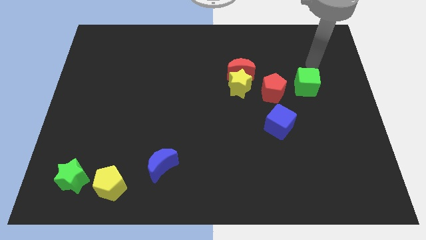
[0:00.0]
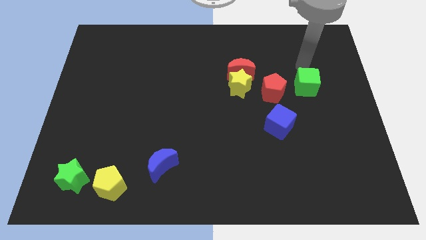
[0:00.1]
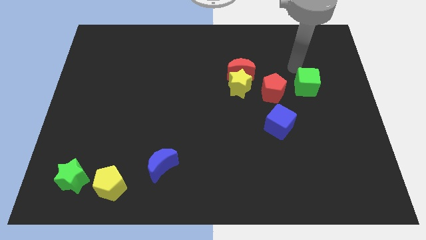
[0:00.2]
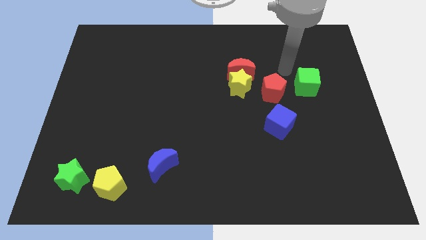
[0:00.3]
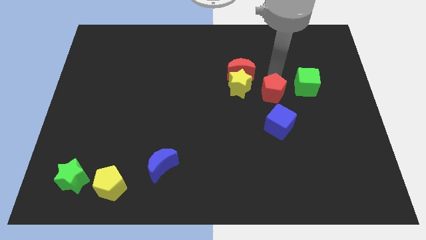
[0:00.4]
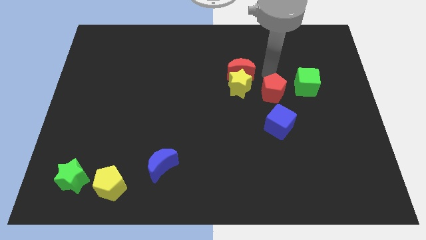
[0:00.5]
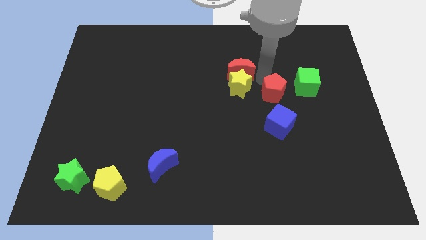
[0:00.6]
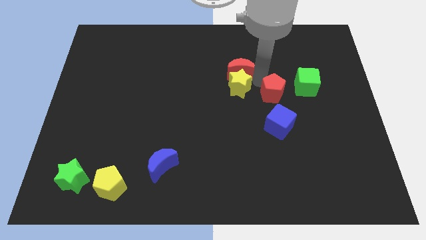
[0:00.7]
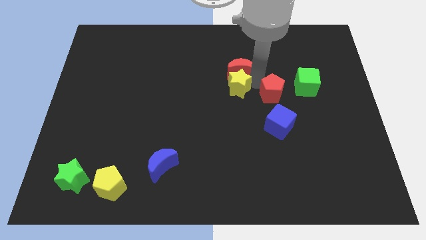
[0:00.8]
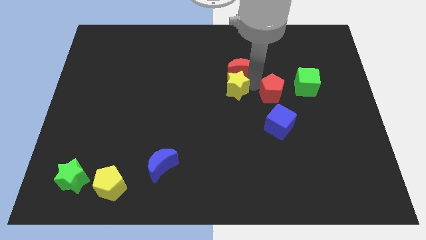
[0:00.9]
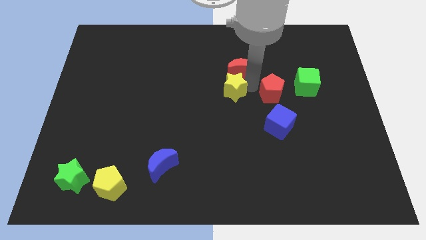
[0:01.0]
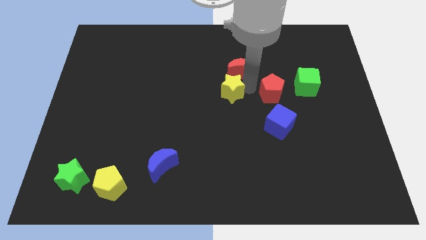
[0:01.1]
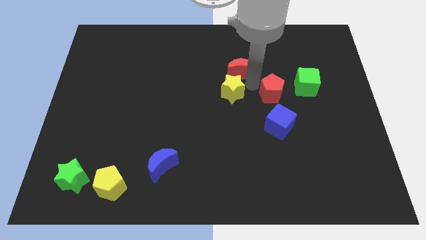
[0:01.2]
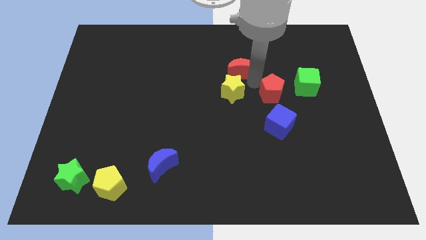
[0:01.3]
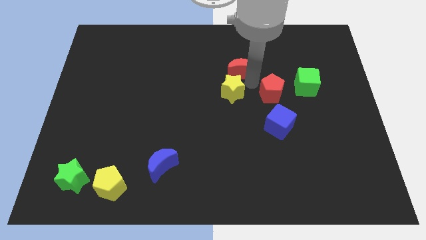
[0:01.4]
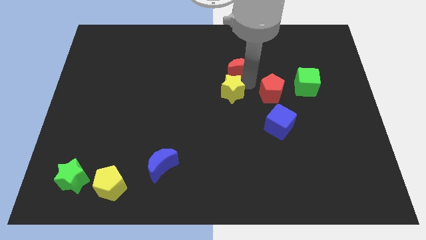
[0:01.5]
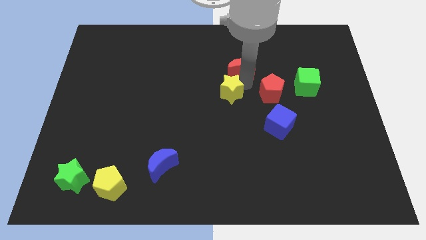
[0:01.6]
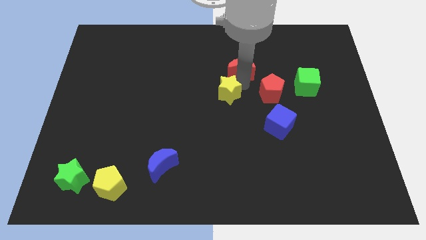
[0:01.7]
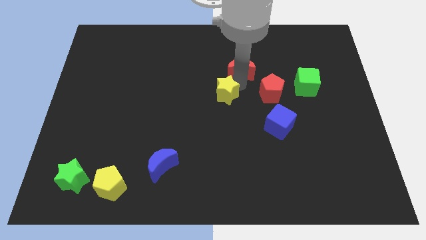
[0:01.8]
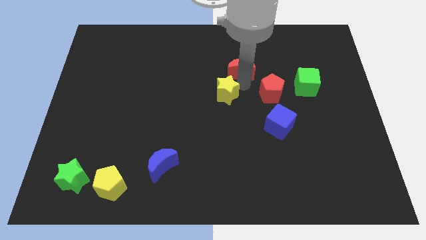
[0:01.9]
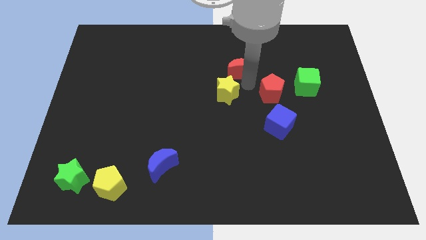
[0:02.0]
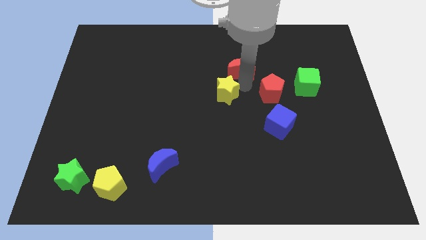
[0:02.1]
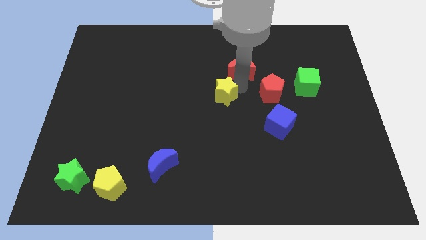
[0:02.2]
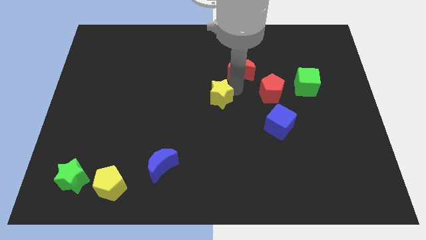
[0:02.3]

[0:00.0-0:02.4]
separate the yellow star from the red moon and red pentagon

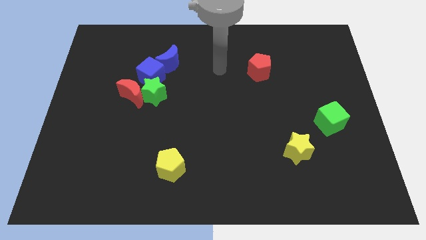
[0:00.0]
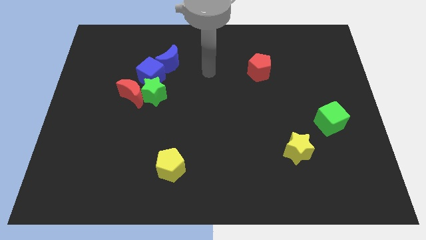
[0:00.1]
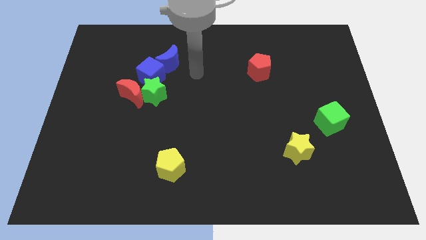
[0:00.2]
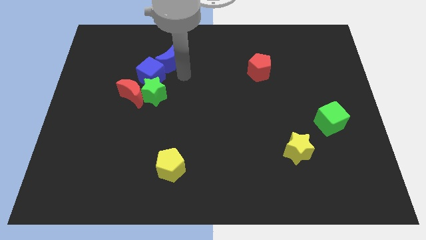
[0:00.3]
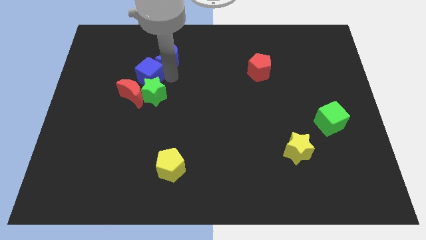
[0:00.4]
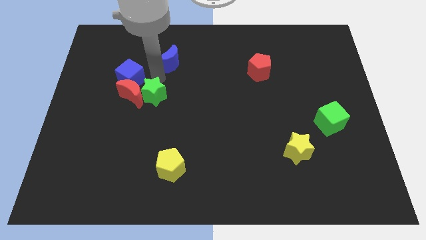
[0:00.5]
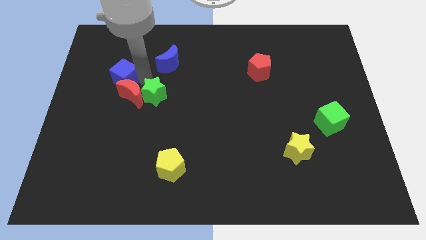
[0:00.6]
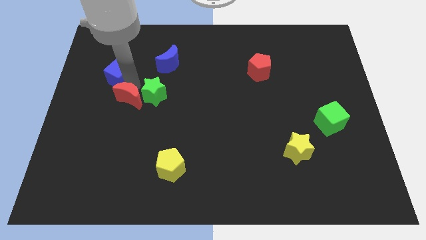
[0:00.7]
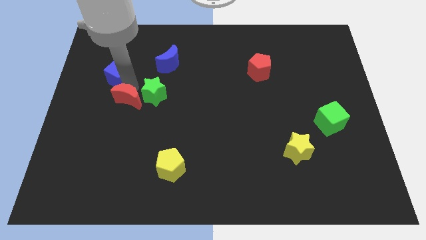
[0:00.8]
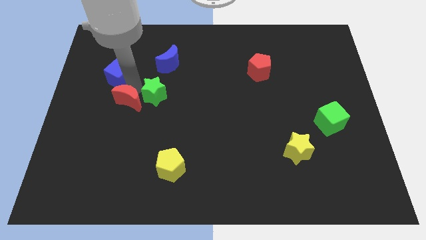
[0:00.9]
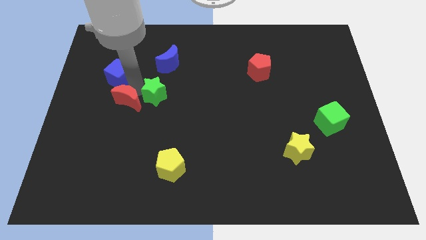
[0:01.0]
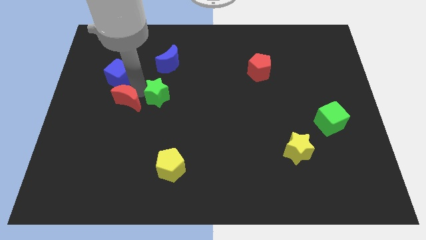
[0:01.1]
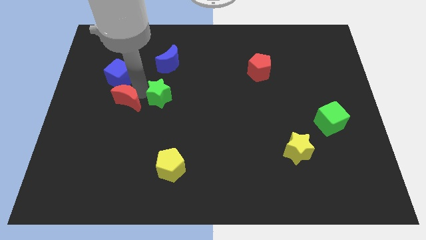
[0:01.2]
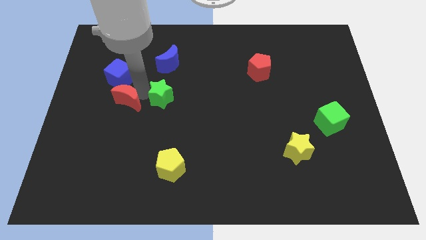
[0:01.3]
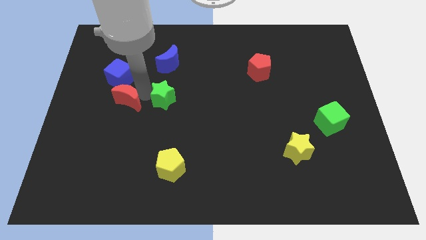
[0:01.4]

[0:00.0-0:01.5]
separate the green star from the red moon and blue cube

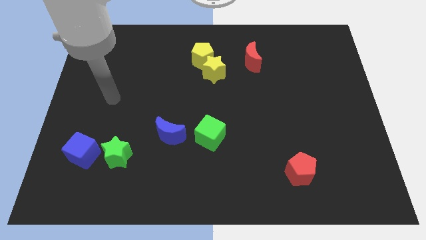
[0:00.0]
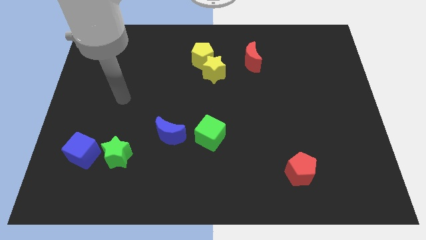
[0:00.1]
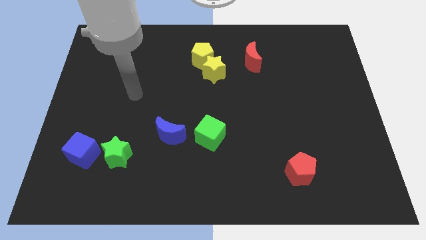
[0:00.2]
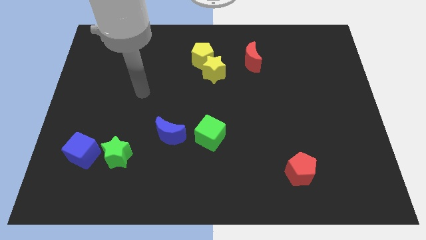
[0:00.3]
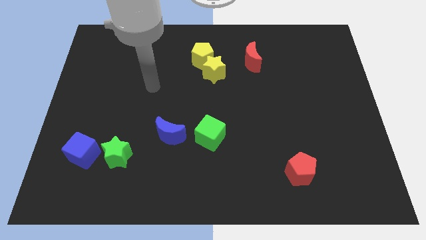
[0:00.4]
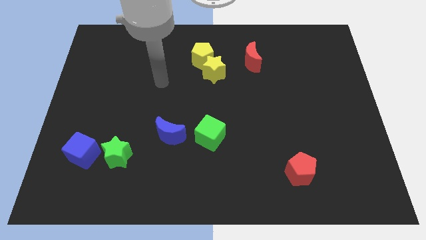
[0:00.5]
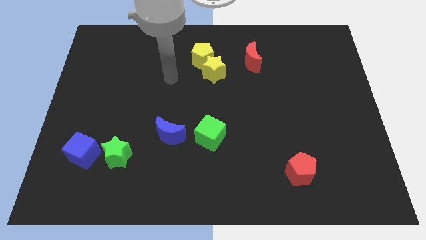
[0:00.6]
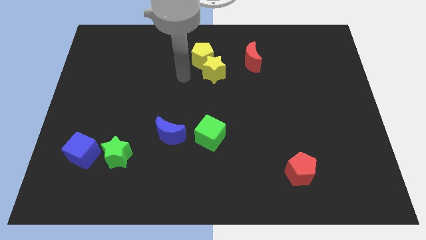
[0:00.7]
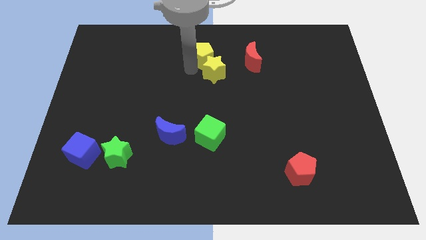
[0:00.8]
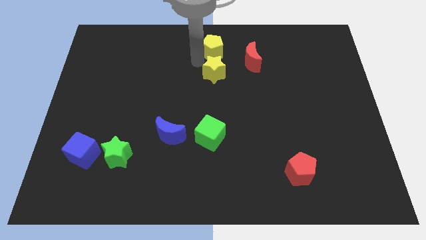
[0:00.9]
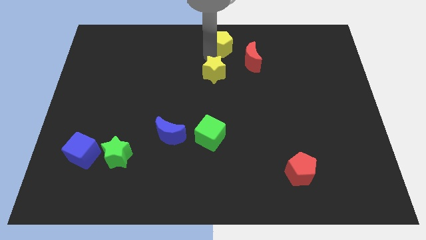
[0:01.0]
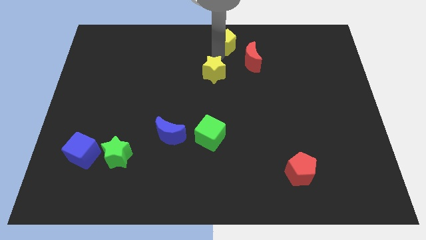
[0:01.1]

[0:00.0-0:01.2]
move the yellow star away from the yellow pentagon

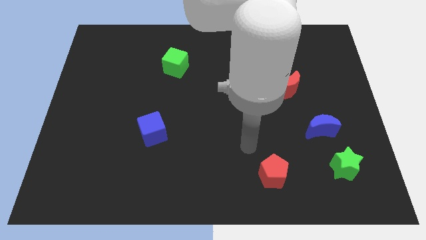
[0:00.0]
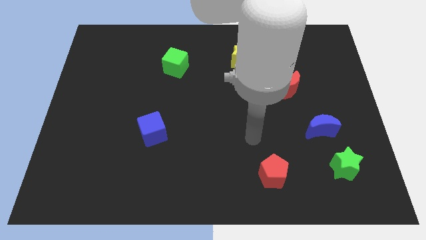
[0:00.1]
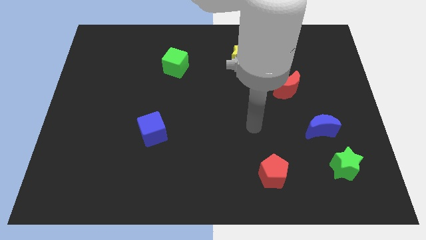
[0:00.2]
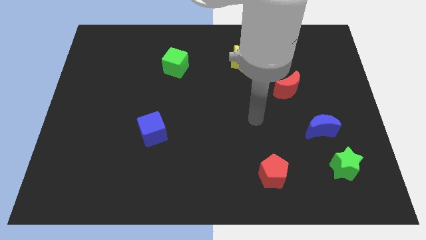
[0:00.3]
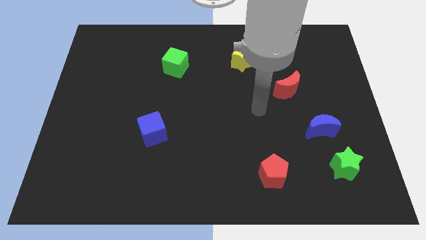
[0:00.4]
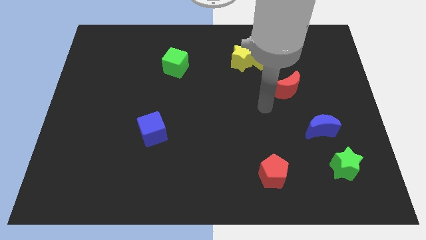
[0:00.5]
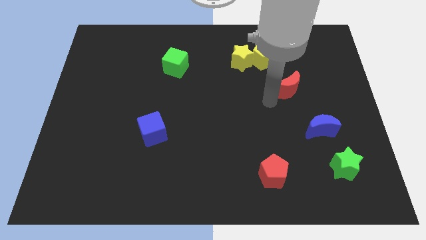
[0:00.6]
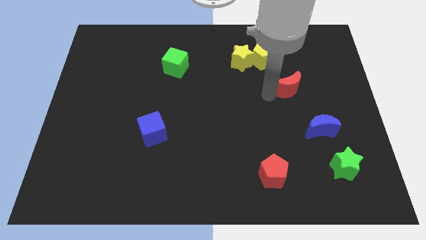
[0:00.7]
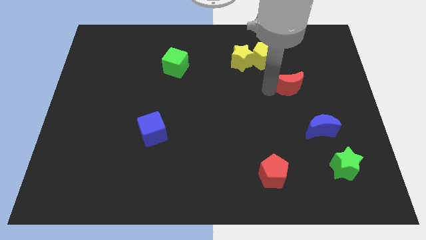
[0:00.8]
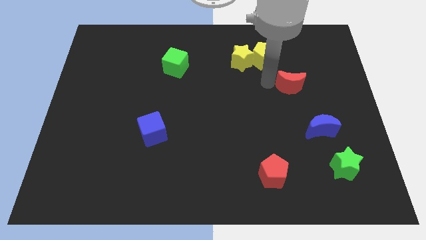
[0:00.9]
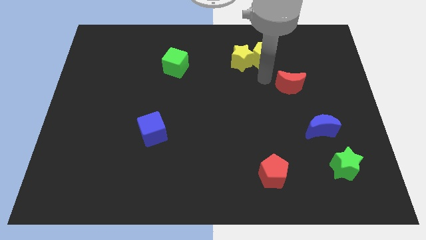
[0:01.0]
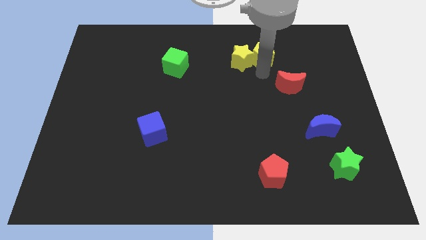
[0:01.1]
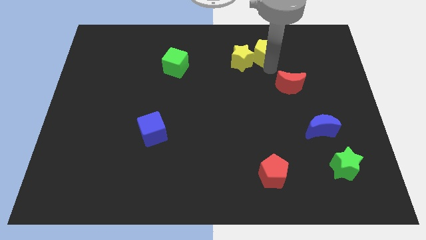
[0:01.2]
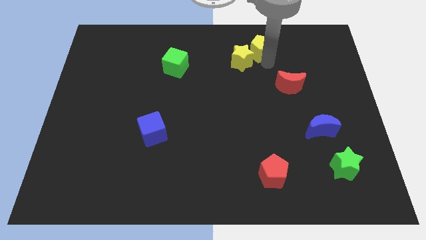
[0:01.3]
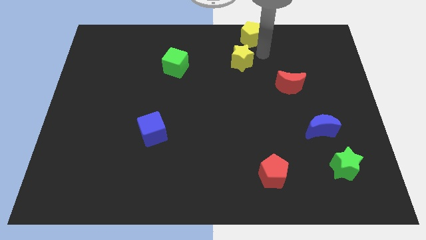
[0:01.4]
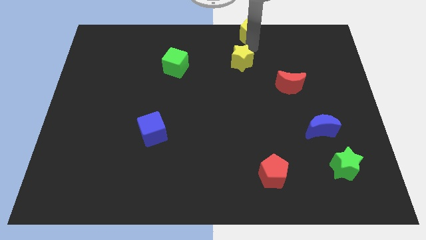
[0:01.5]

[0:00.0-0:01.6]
separate the yellow star from the yellow pentagon

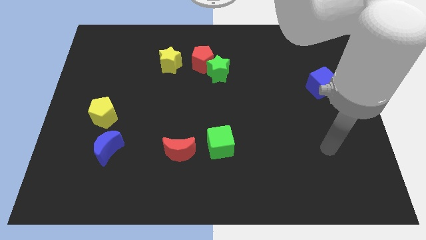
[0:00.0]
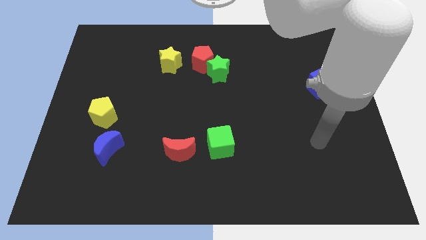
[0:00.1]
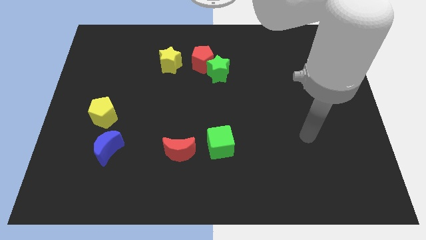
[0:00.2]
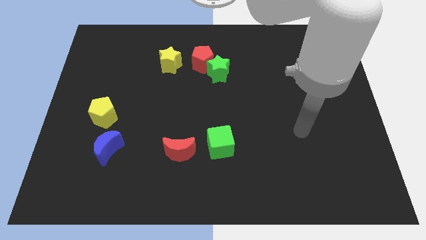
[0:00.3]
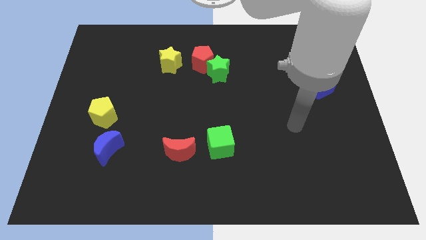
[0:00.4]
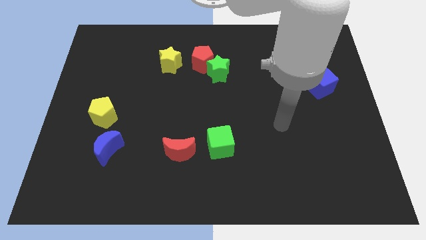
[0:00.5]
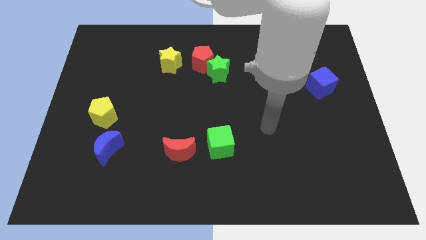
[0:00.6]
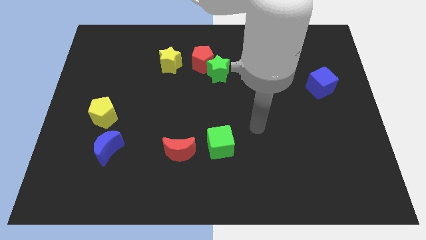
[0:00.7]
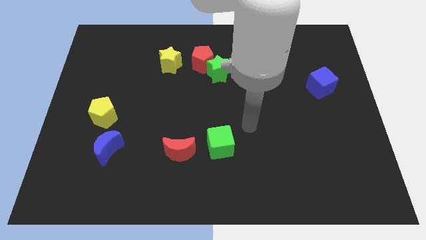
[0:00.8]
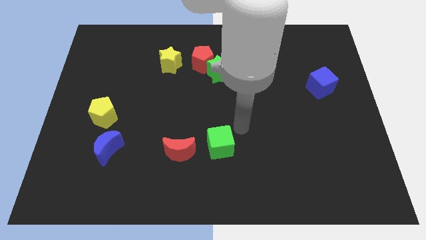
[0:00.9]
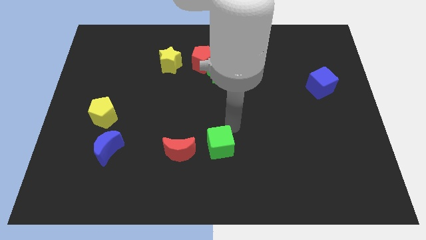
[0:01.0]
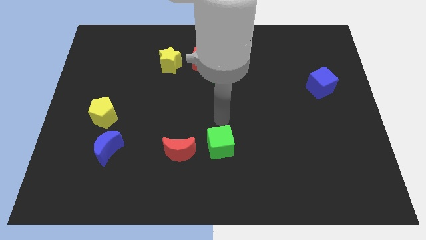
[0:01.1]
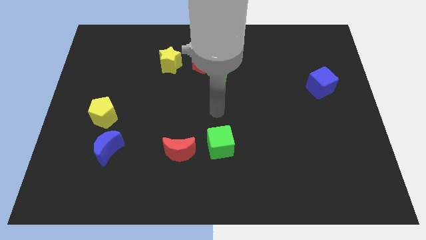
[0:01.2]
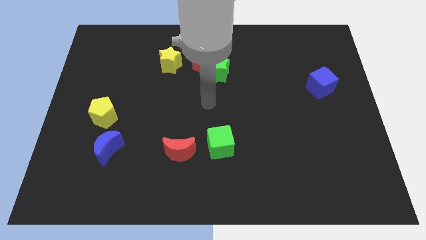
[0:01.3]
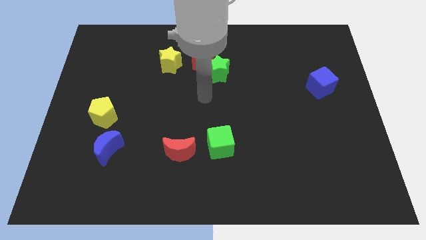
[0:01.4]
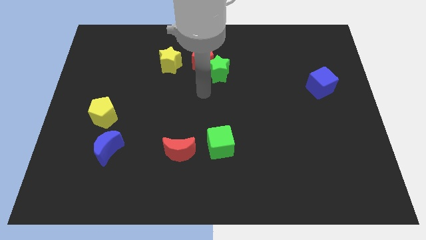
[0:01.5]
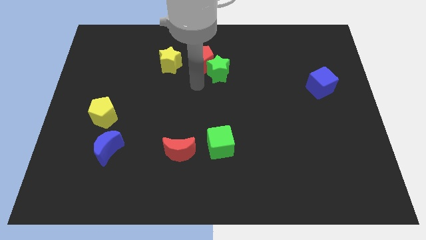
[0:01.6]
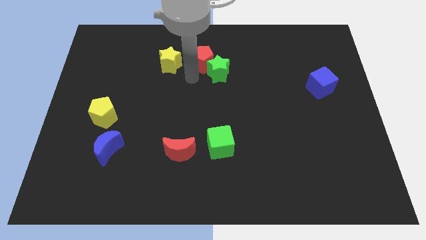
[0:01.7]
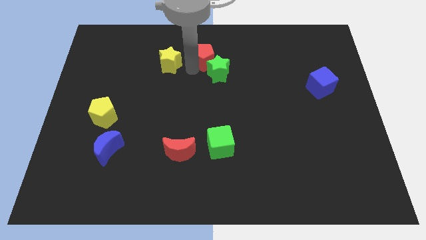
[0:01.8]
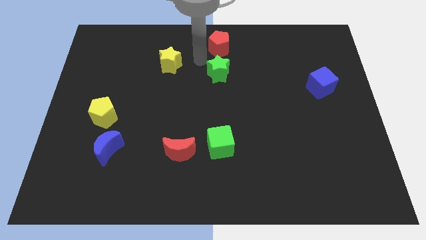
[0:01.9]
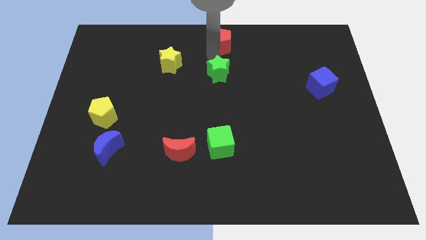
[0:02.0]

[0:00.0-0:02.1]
separate the green star from the red pentagon

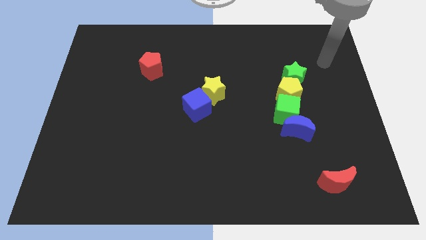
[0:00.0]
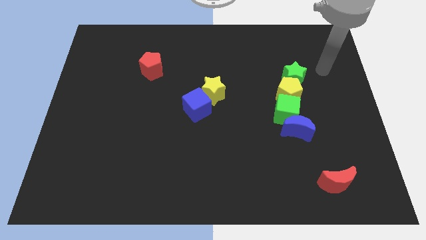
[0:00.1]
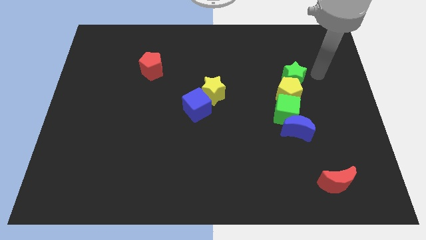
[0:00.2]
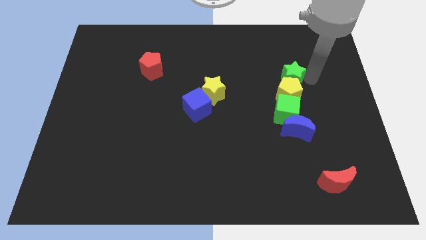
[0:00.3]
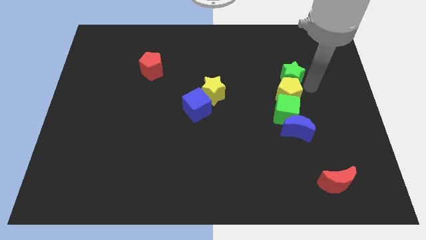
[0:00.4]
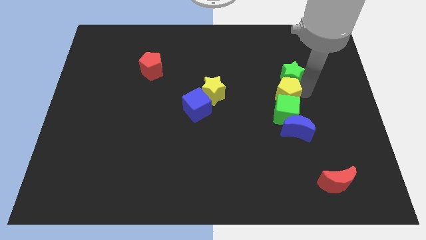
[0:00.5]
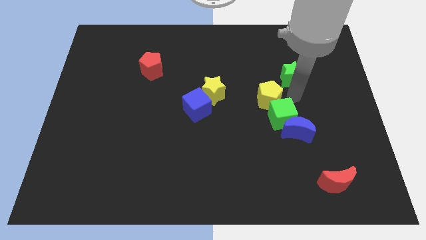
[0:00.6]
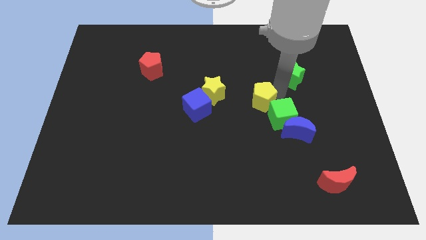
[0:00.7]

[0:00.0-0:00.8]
move the green star away from the yellow pentagon
